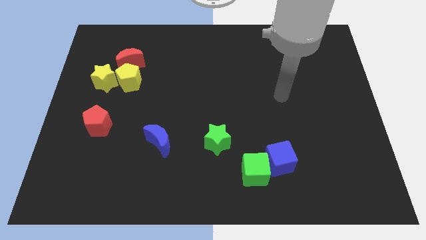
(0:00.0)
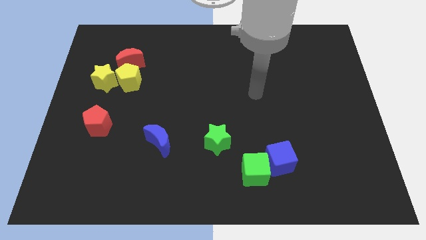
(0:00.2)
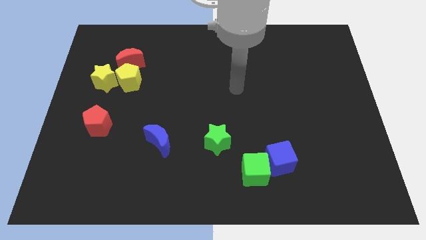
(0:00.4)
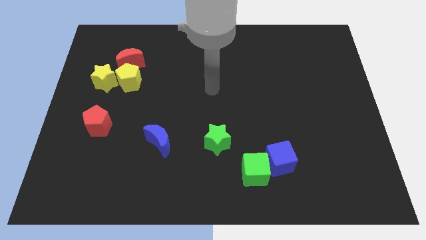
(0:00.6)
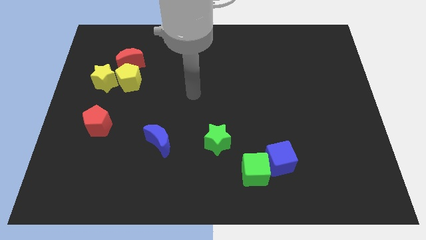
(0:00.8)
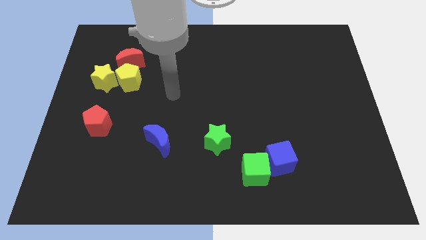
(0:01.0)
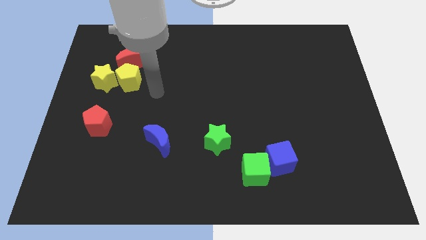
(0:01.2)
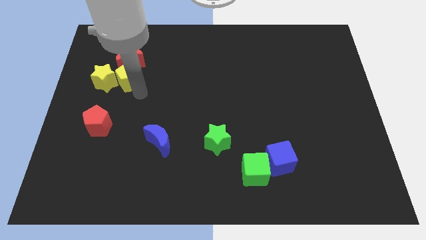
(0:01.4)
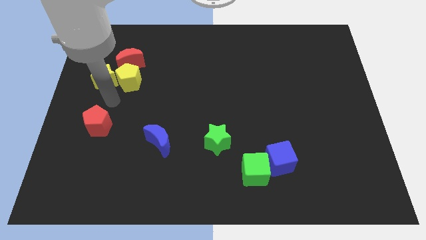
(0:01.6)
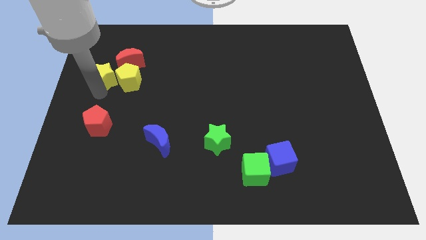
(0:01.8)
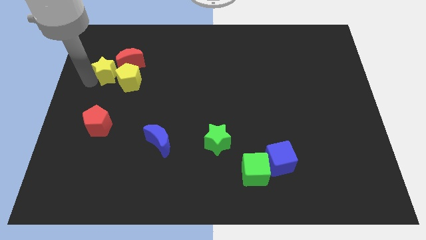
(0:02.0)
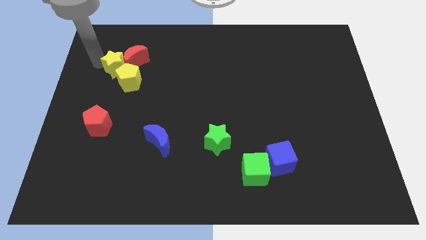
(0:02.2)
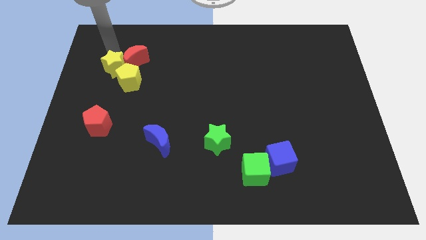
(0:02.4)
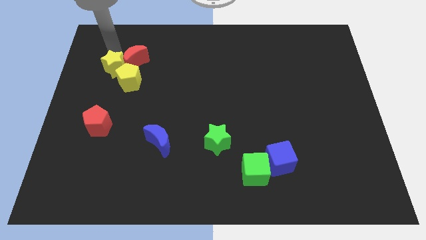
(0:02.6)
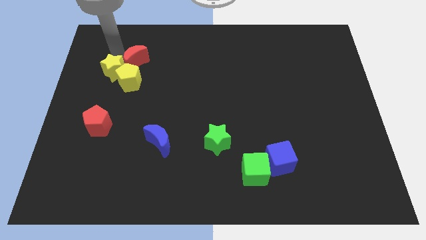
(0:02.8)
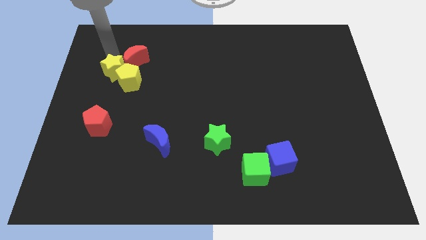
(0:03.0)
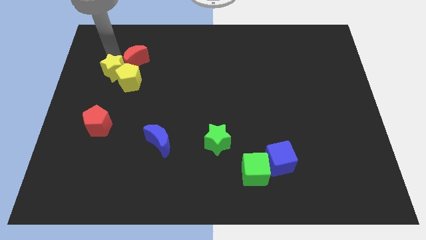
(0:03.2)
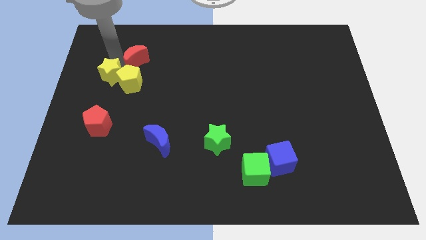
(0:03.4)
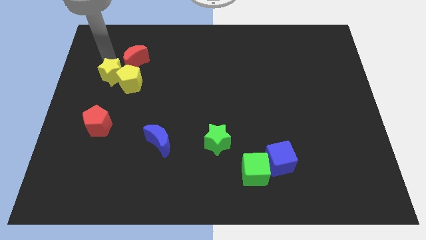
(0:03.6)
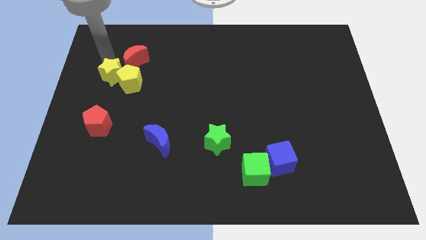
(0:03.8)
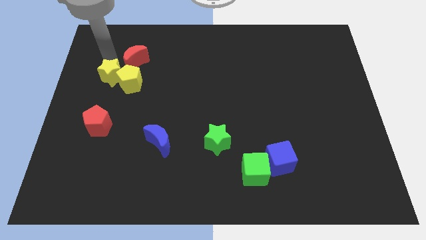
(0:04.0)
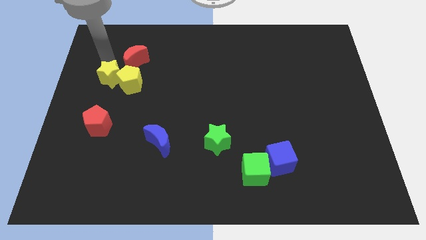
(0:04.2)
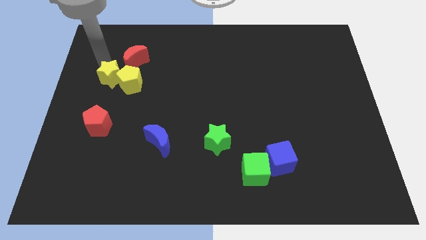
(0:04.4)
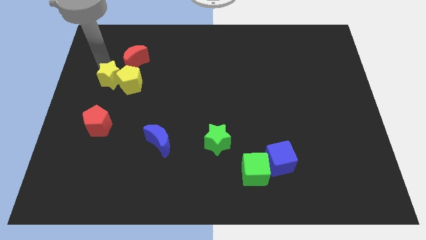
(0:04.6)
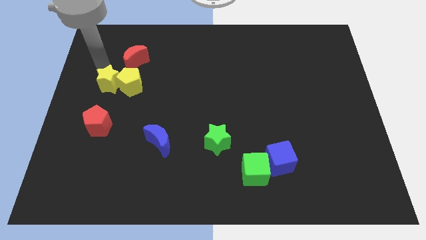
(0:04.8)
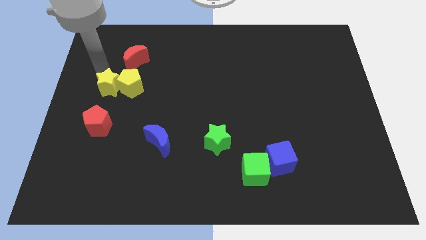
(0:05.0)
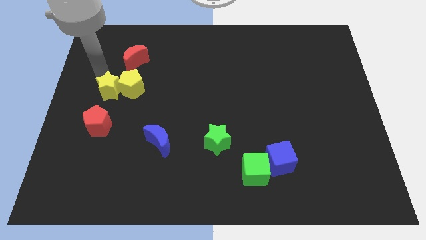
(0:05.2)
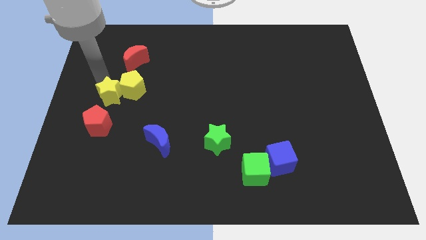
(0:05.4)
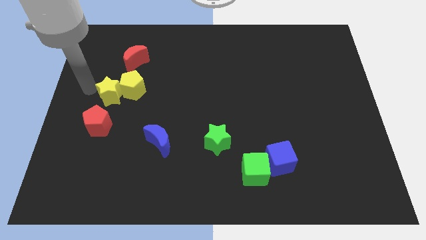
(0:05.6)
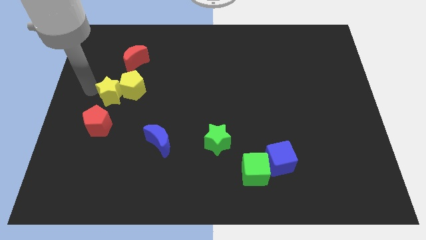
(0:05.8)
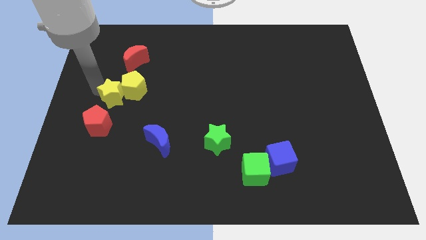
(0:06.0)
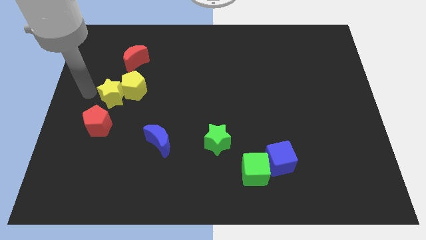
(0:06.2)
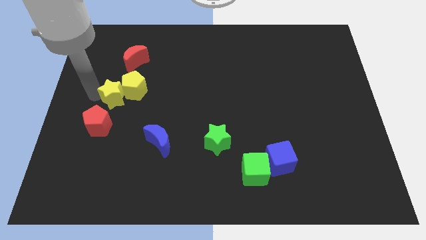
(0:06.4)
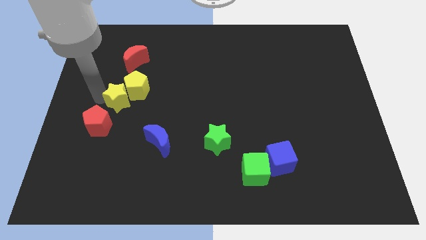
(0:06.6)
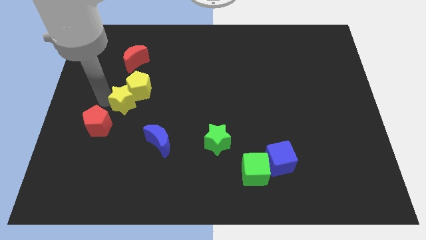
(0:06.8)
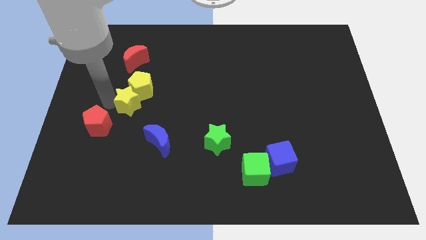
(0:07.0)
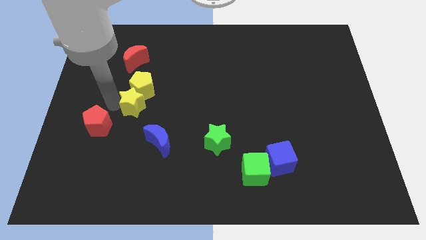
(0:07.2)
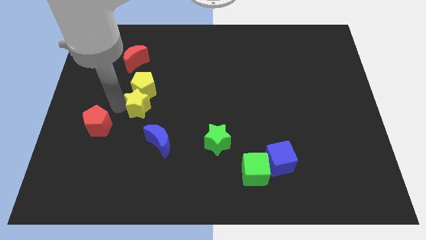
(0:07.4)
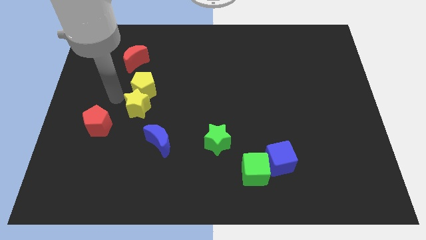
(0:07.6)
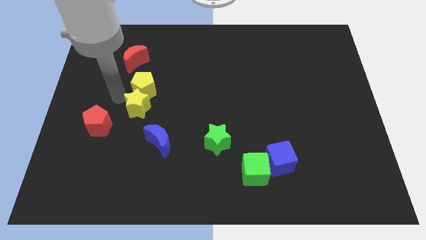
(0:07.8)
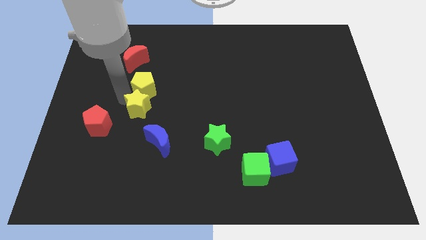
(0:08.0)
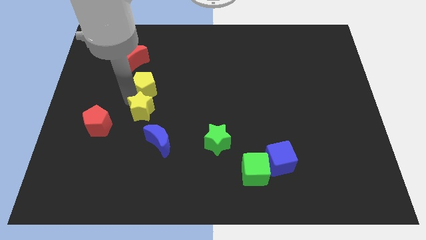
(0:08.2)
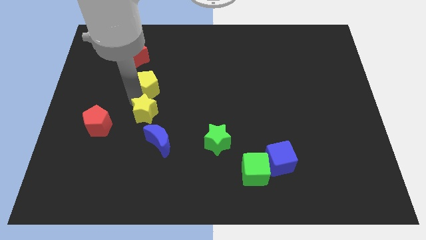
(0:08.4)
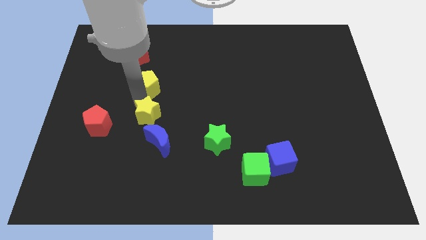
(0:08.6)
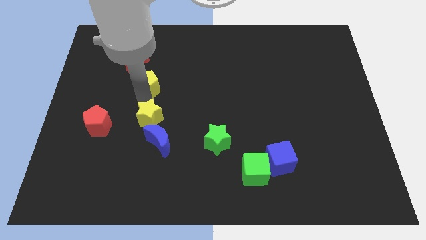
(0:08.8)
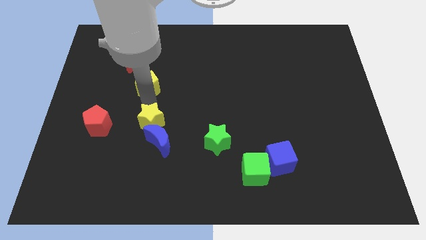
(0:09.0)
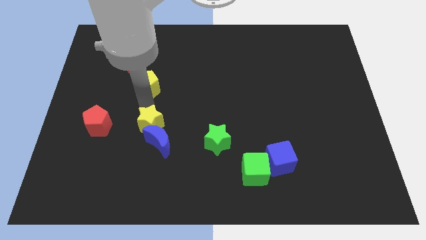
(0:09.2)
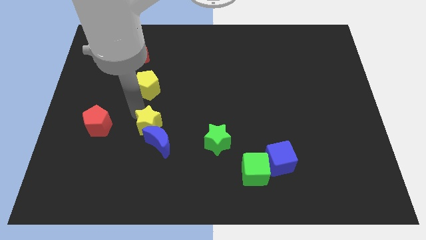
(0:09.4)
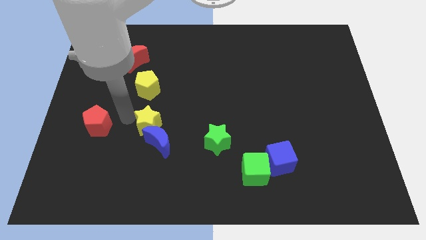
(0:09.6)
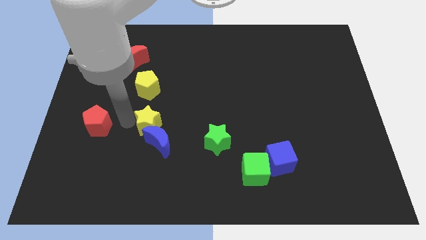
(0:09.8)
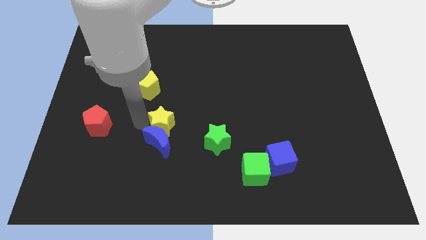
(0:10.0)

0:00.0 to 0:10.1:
move the yellow star down and right diagonally

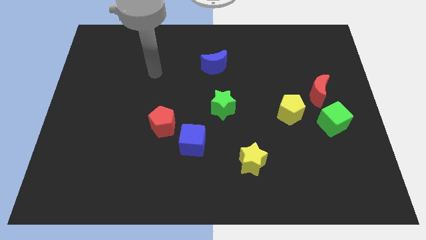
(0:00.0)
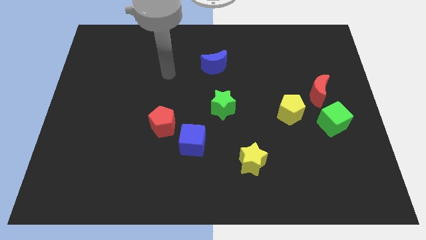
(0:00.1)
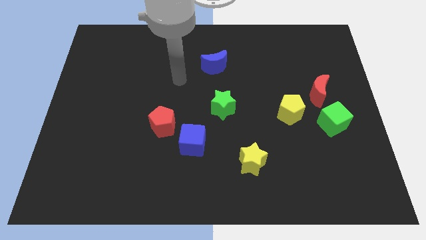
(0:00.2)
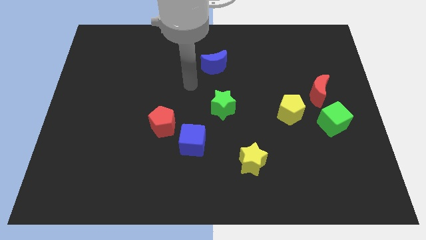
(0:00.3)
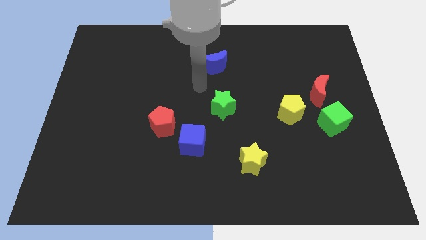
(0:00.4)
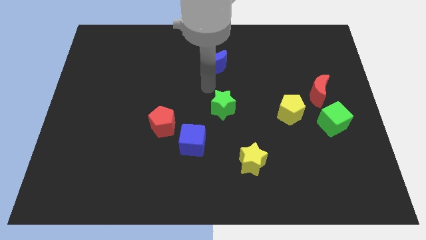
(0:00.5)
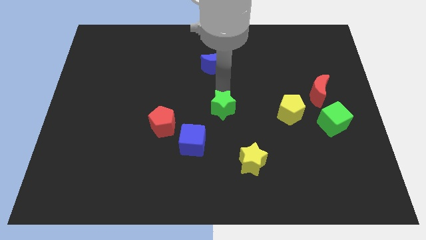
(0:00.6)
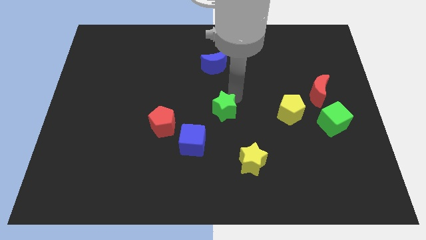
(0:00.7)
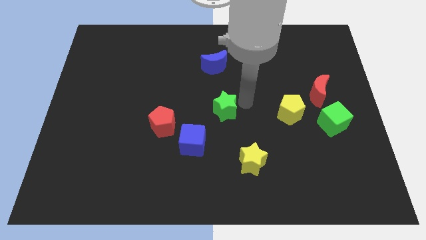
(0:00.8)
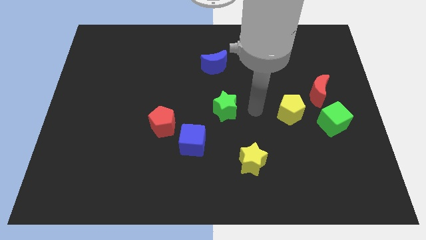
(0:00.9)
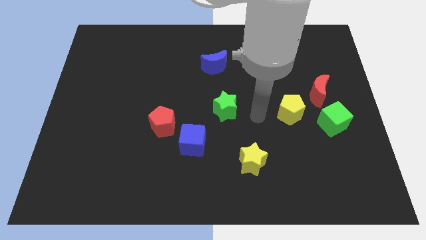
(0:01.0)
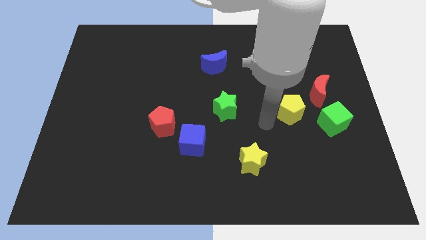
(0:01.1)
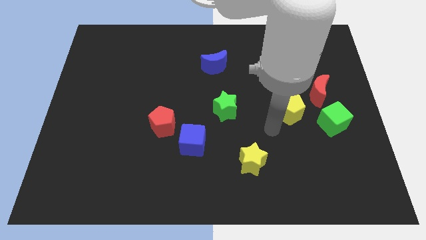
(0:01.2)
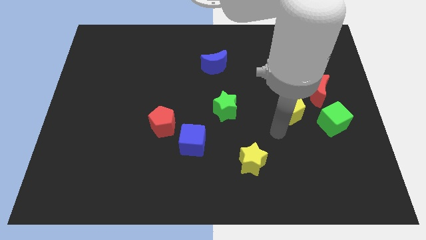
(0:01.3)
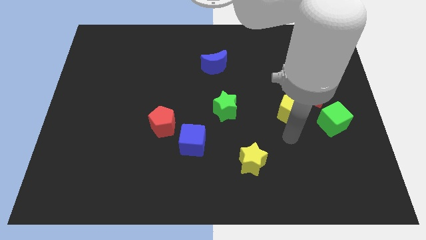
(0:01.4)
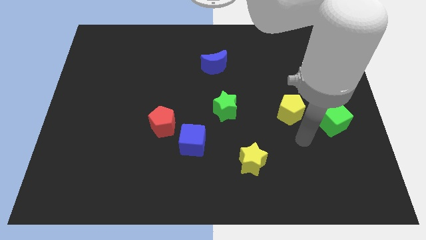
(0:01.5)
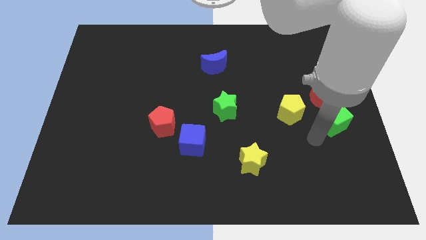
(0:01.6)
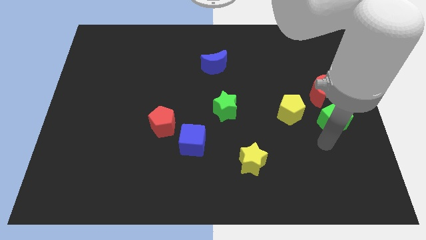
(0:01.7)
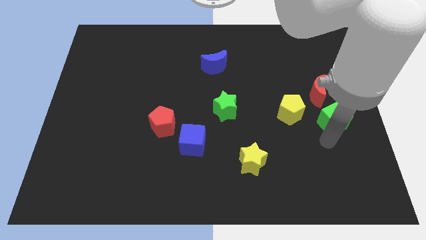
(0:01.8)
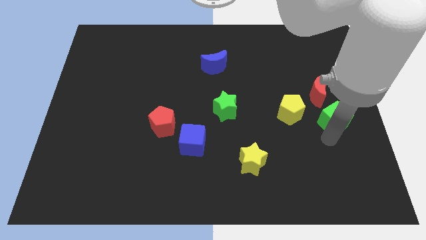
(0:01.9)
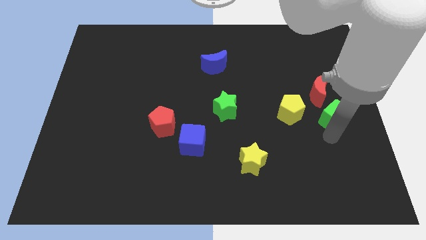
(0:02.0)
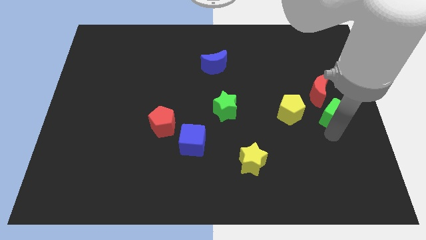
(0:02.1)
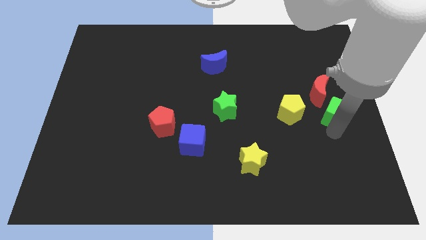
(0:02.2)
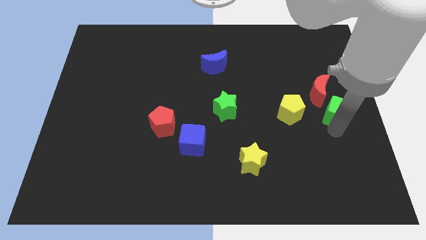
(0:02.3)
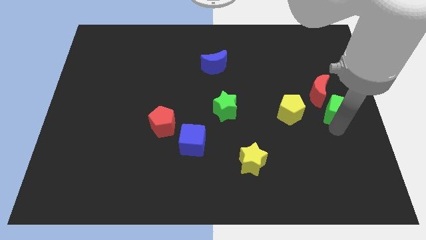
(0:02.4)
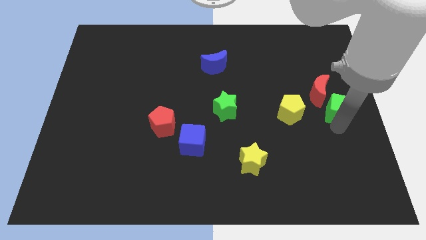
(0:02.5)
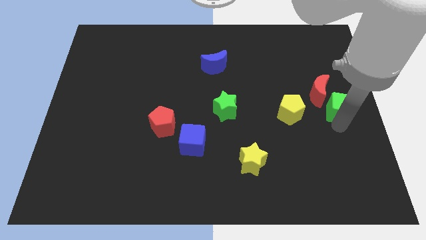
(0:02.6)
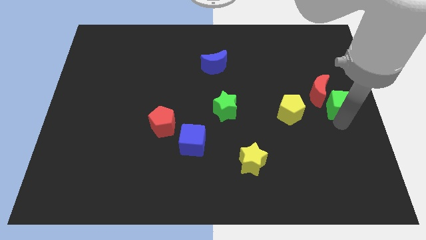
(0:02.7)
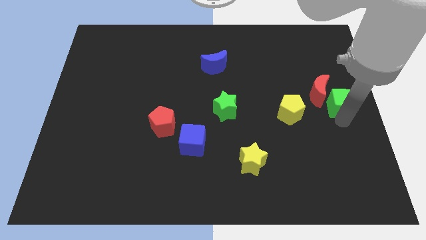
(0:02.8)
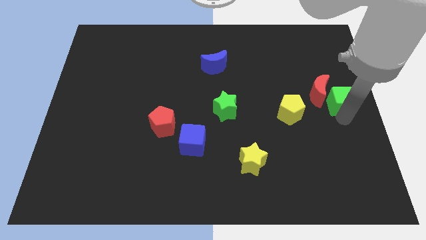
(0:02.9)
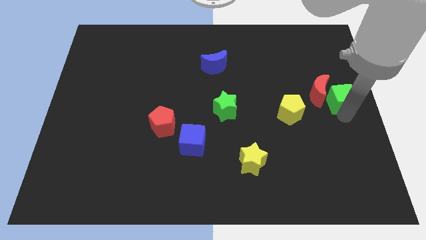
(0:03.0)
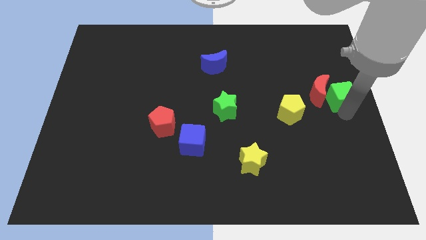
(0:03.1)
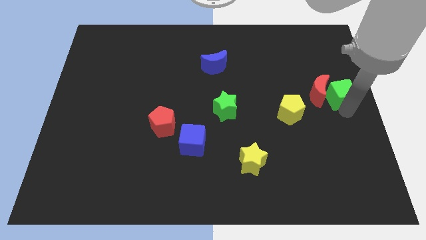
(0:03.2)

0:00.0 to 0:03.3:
push the green cube somewhat up
